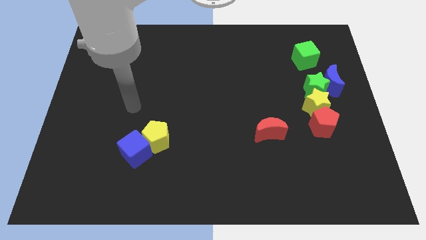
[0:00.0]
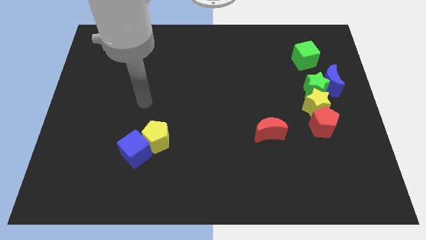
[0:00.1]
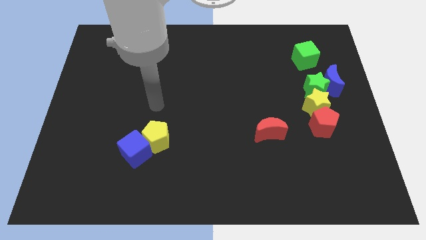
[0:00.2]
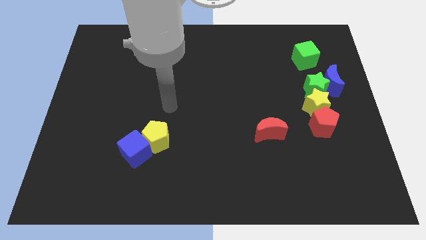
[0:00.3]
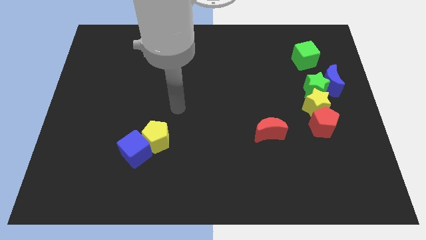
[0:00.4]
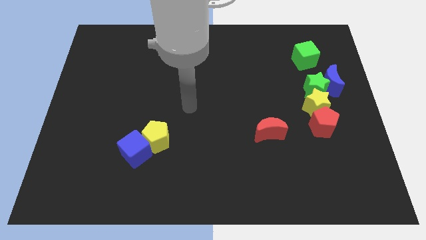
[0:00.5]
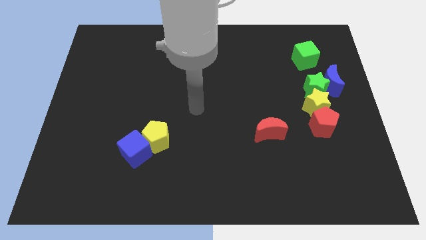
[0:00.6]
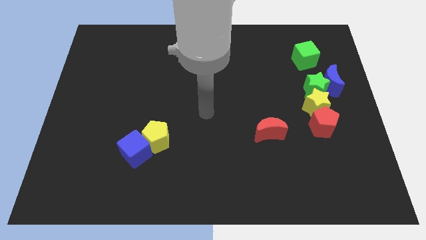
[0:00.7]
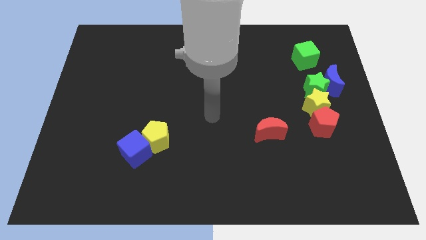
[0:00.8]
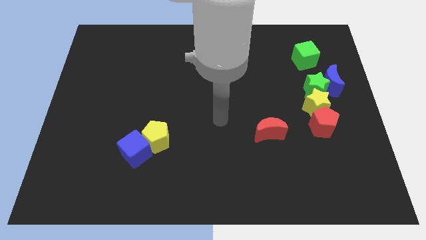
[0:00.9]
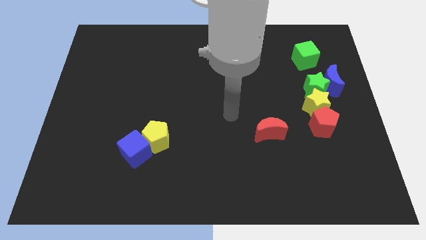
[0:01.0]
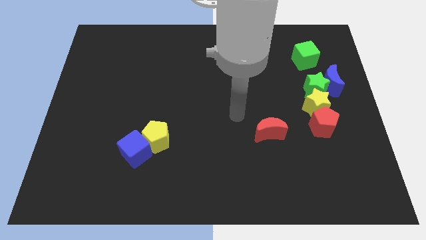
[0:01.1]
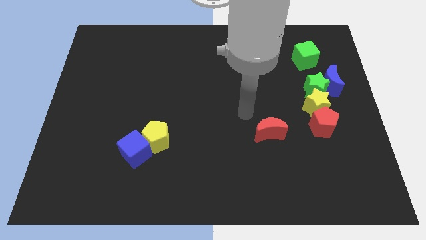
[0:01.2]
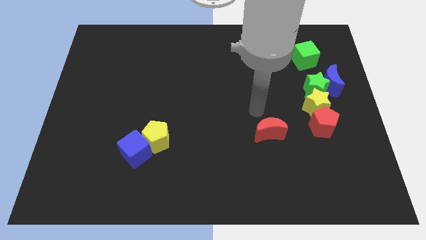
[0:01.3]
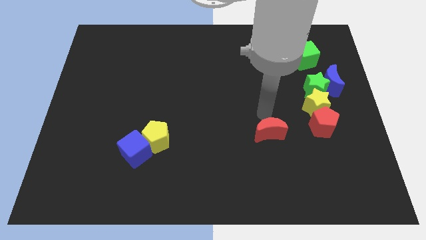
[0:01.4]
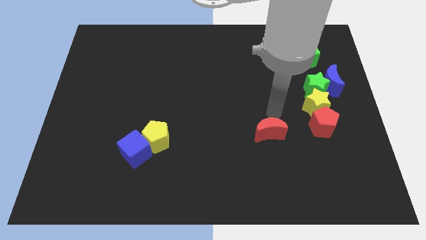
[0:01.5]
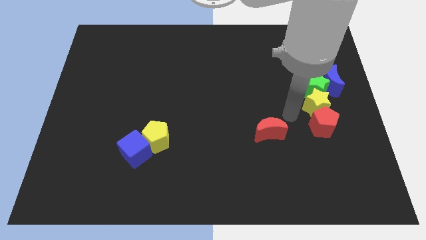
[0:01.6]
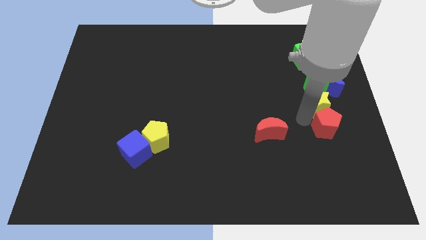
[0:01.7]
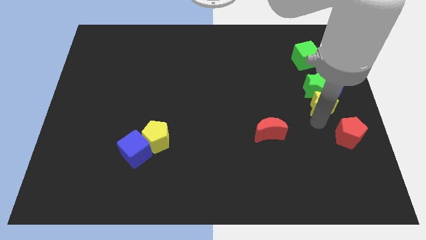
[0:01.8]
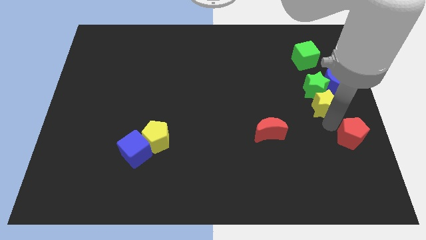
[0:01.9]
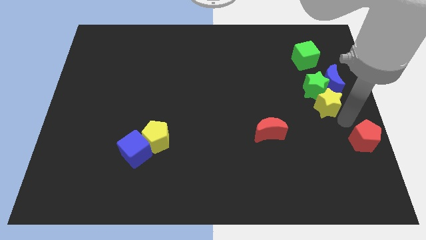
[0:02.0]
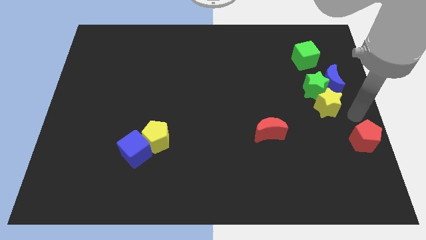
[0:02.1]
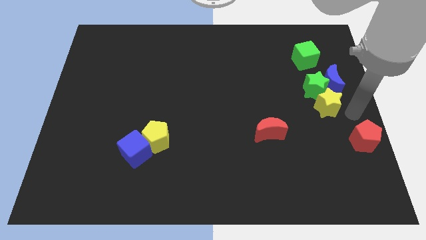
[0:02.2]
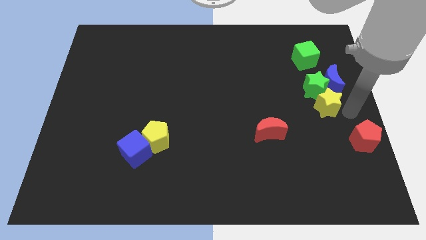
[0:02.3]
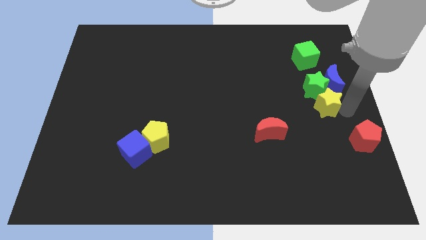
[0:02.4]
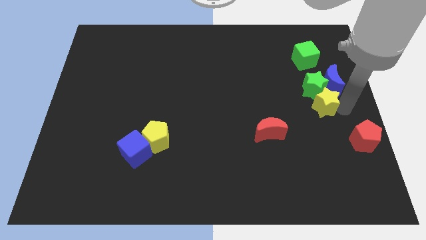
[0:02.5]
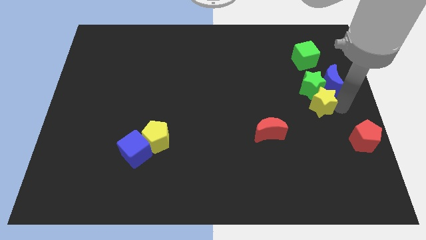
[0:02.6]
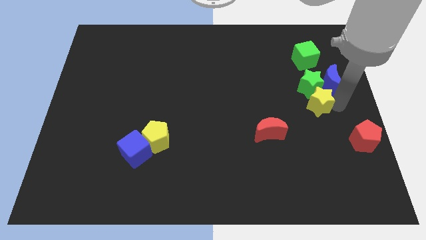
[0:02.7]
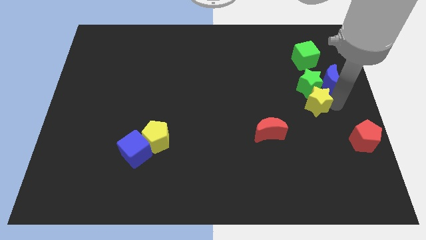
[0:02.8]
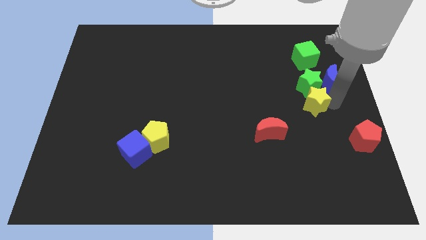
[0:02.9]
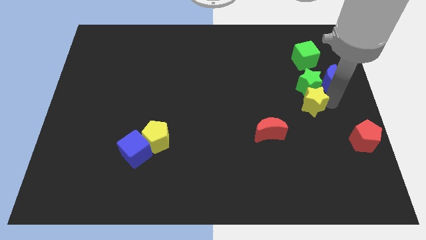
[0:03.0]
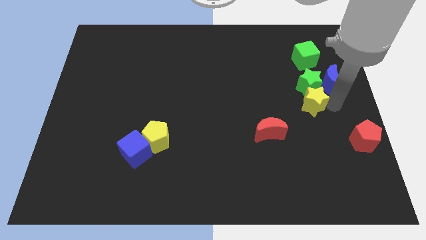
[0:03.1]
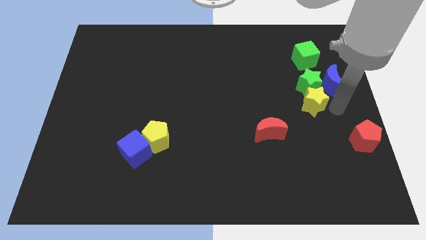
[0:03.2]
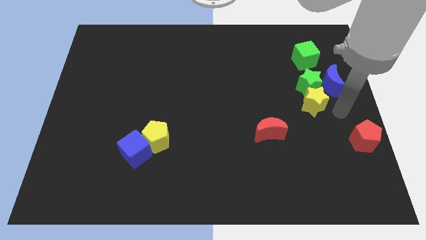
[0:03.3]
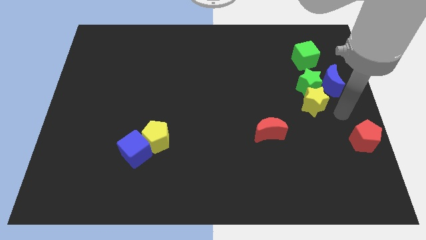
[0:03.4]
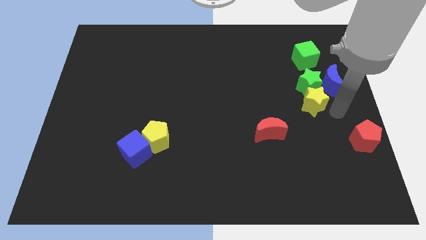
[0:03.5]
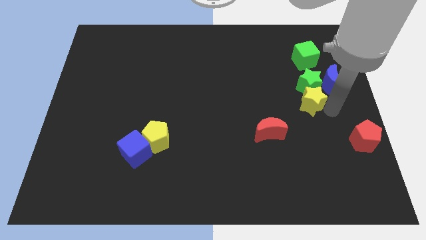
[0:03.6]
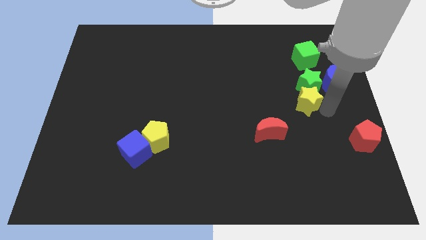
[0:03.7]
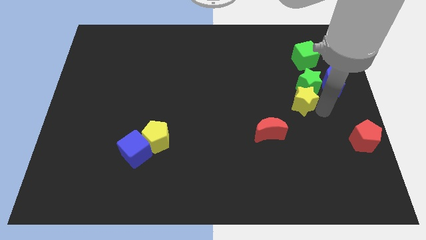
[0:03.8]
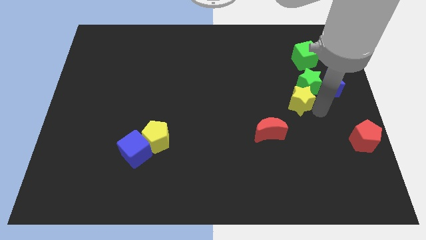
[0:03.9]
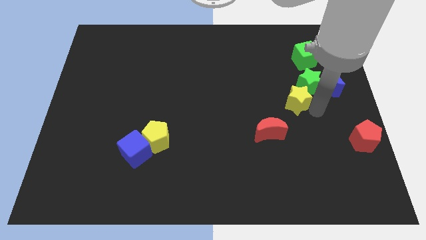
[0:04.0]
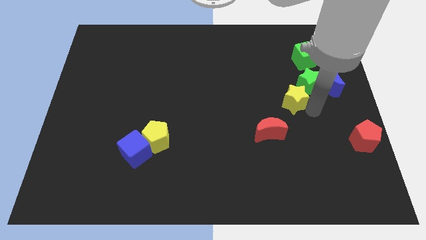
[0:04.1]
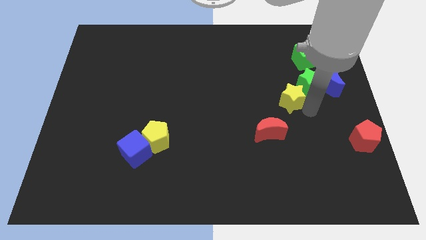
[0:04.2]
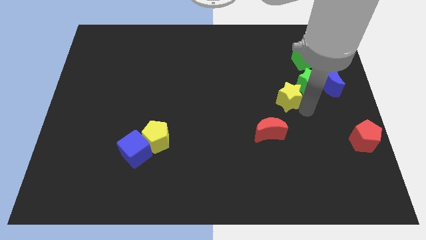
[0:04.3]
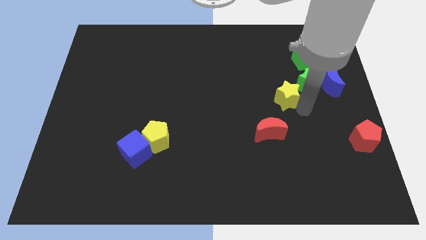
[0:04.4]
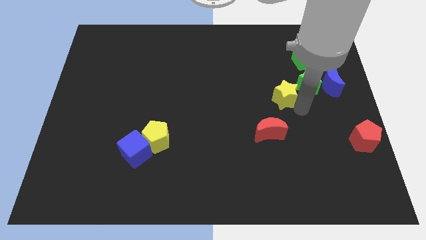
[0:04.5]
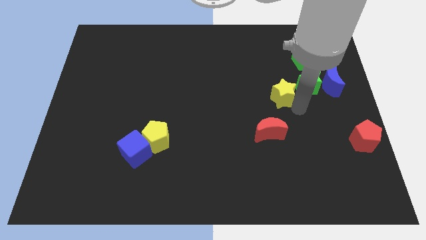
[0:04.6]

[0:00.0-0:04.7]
slide the yellow star upwards and left slightly

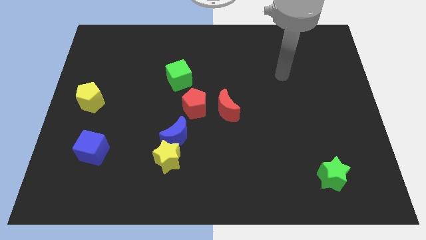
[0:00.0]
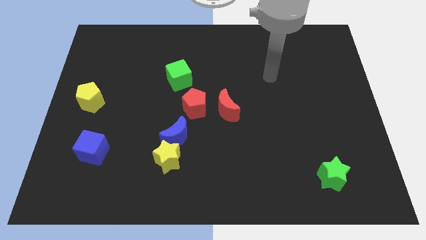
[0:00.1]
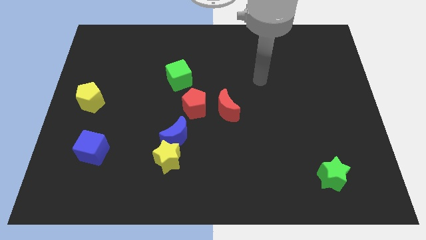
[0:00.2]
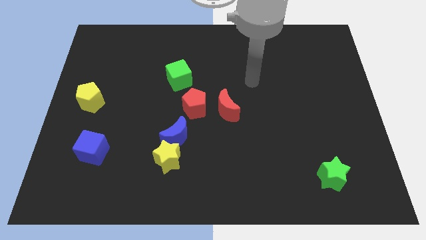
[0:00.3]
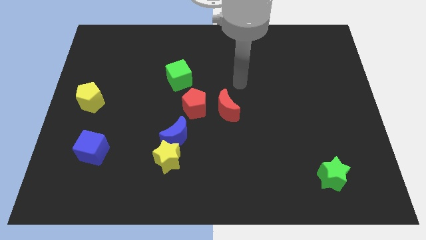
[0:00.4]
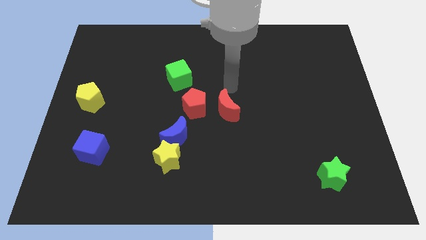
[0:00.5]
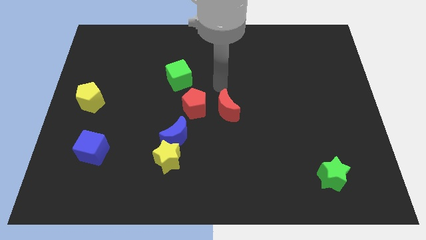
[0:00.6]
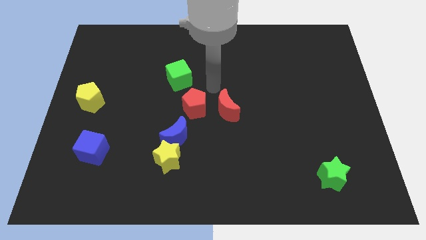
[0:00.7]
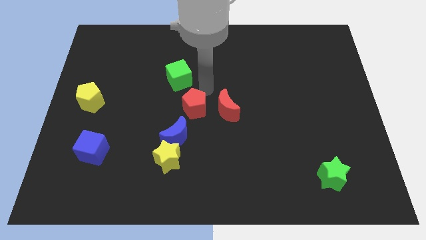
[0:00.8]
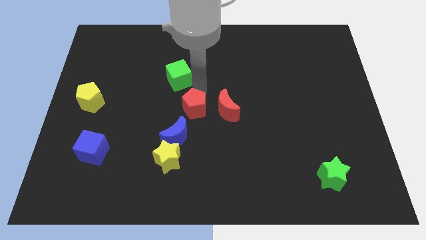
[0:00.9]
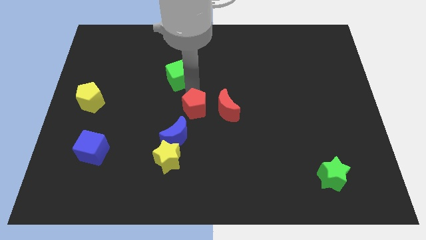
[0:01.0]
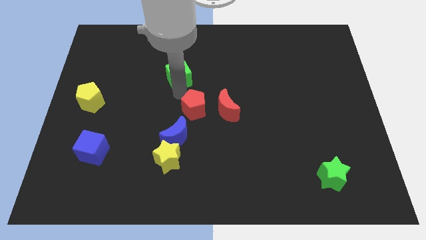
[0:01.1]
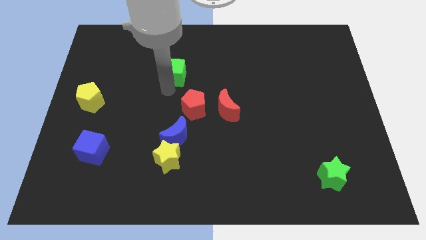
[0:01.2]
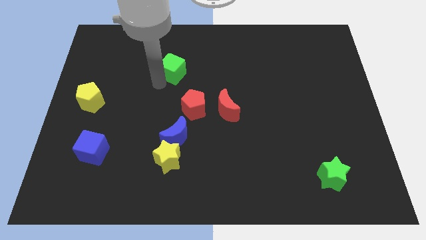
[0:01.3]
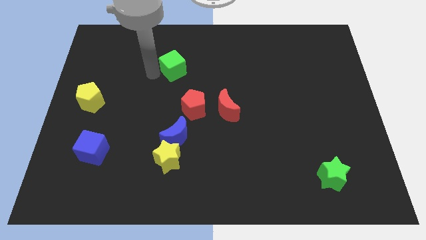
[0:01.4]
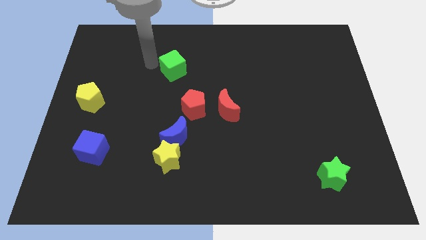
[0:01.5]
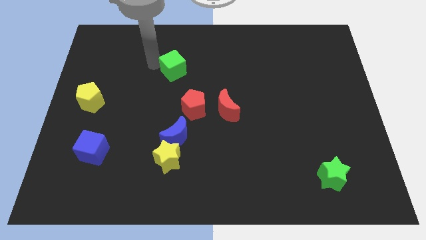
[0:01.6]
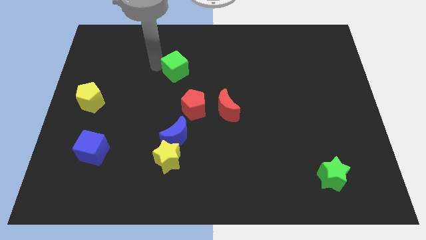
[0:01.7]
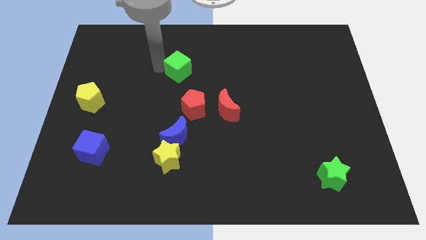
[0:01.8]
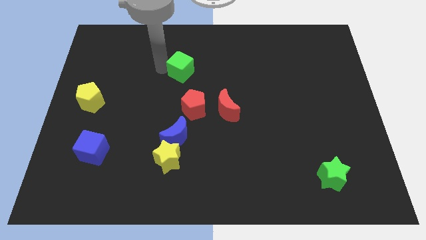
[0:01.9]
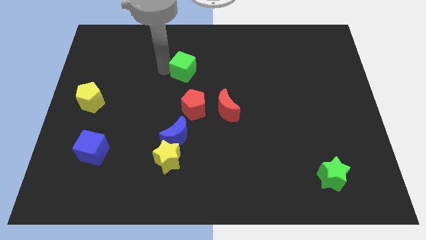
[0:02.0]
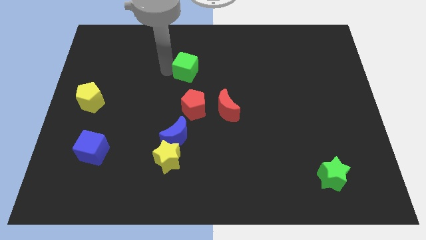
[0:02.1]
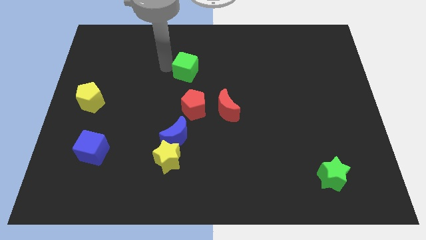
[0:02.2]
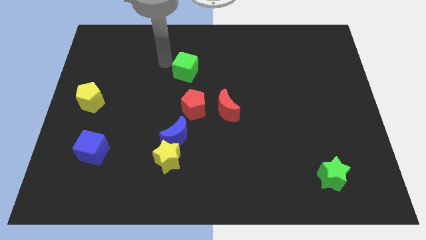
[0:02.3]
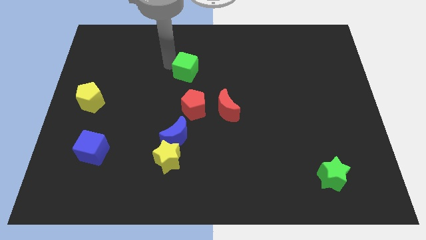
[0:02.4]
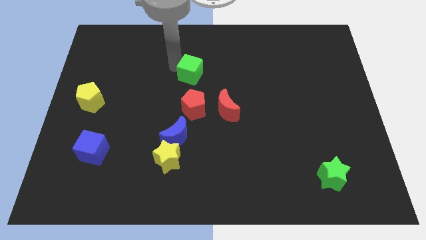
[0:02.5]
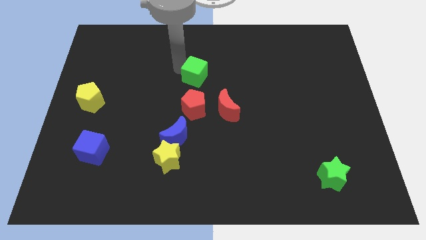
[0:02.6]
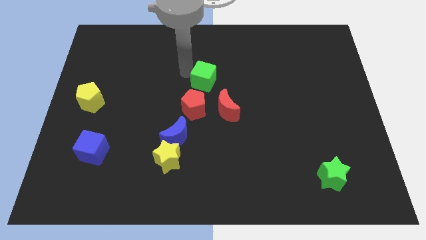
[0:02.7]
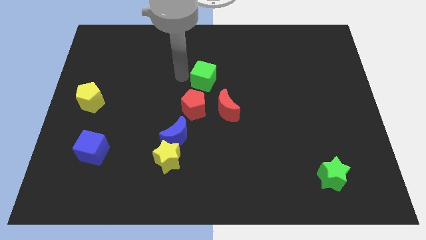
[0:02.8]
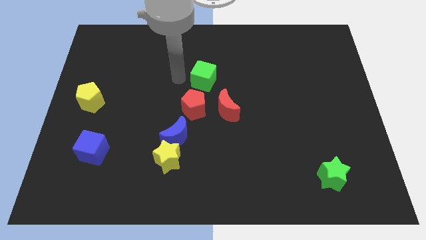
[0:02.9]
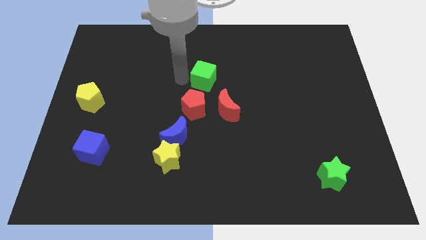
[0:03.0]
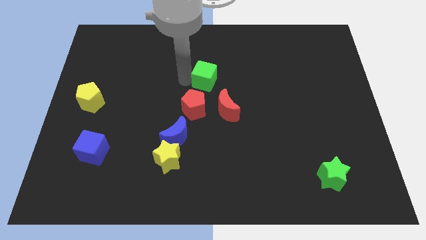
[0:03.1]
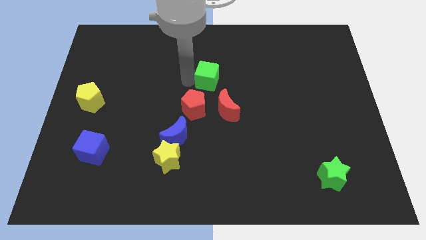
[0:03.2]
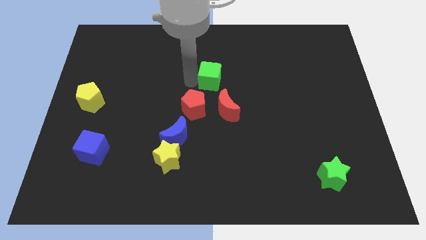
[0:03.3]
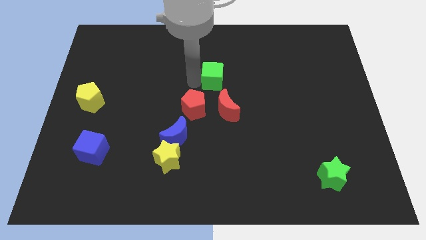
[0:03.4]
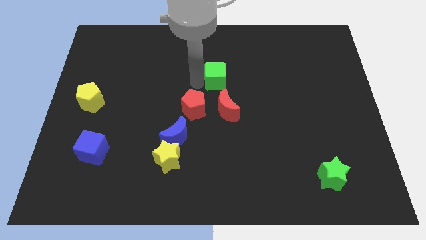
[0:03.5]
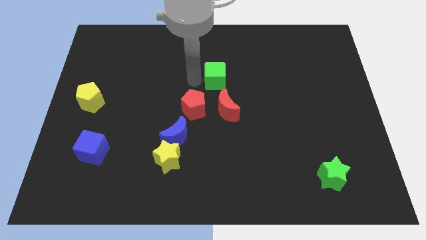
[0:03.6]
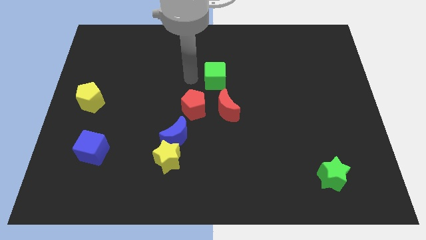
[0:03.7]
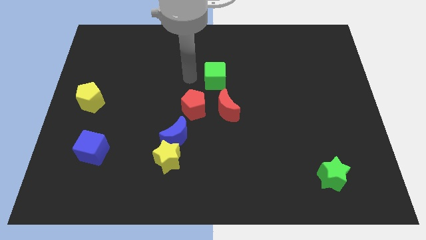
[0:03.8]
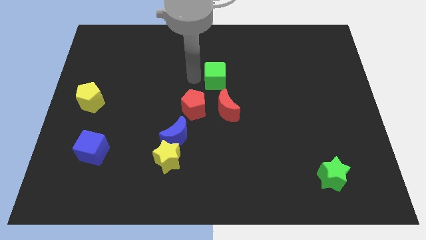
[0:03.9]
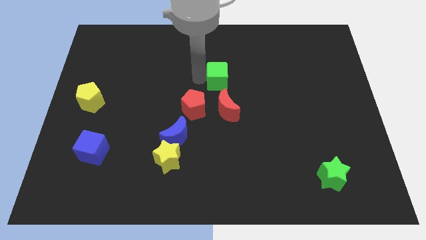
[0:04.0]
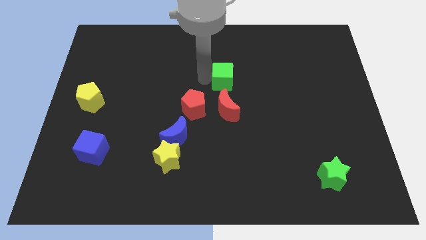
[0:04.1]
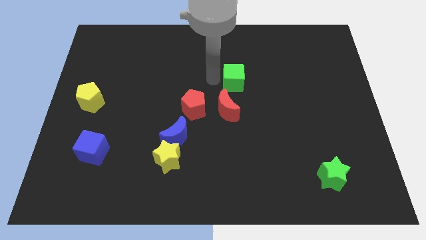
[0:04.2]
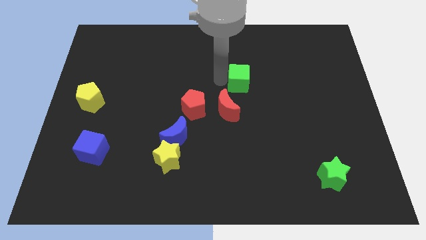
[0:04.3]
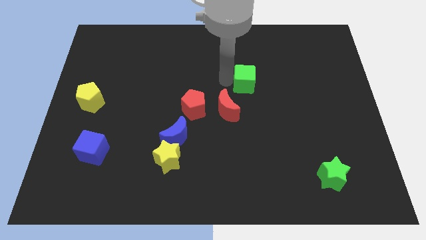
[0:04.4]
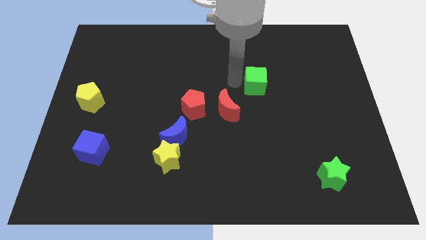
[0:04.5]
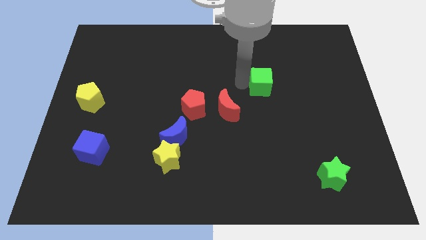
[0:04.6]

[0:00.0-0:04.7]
slide the green cube to the right
